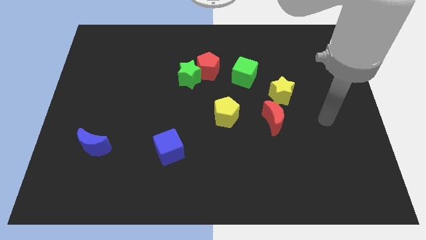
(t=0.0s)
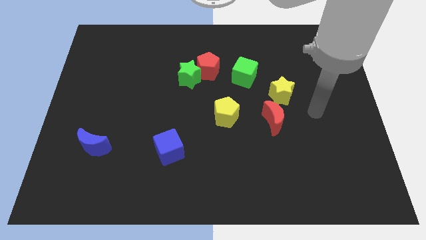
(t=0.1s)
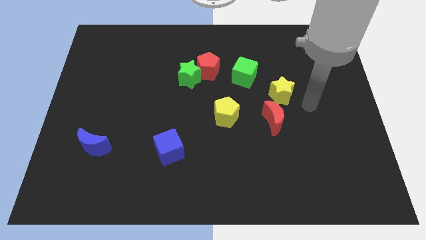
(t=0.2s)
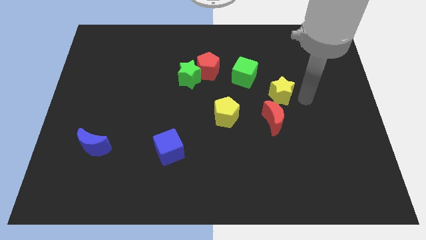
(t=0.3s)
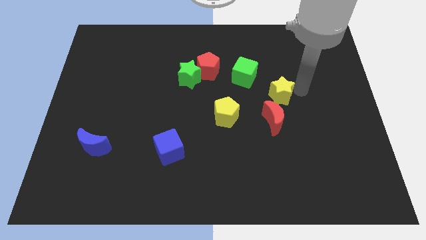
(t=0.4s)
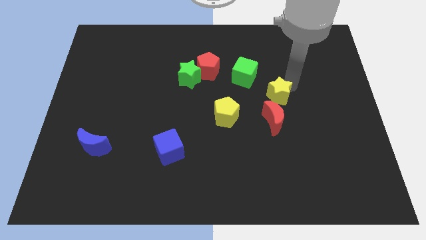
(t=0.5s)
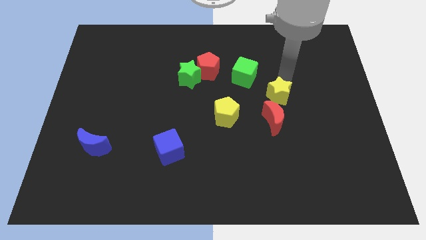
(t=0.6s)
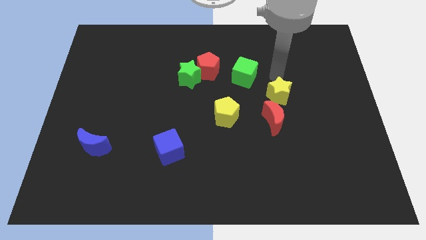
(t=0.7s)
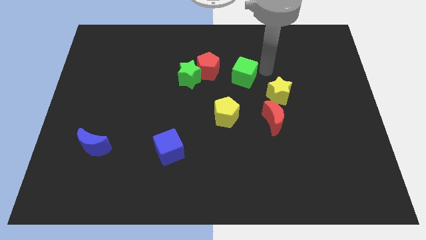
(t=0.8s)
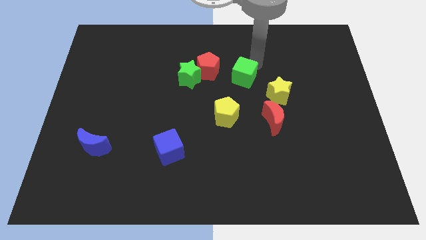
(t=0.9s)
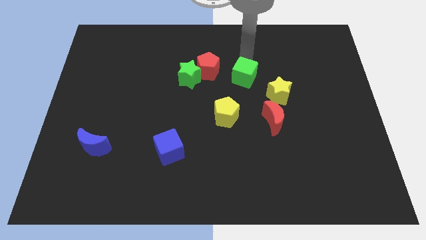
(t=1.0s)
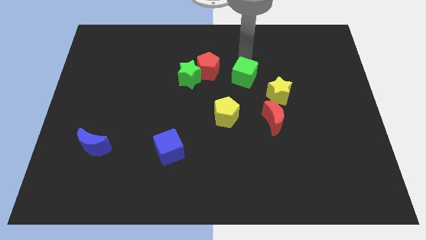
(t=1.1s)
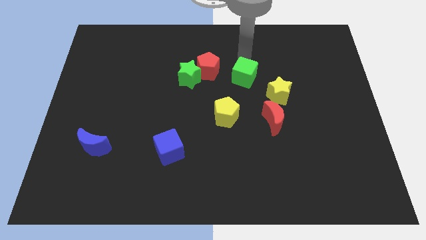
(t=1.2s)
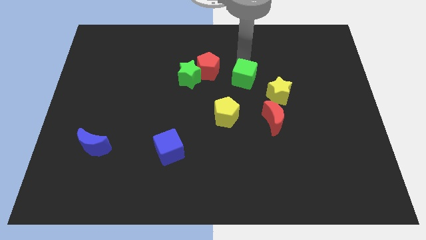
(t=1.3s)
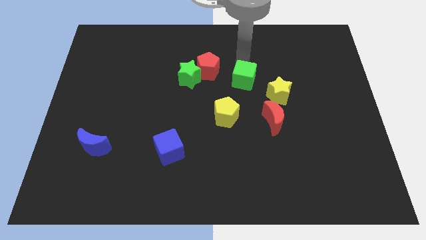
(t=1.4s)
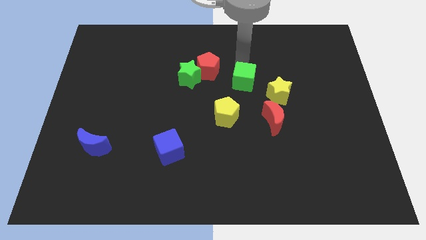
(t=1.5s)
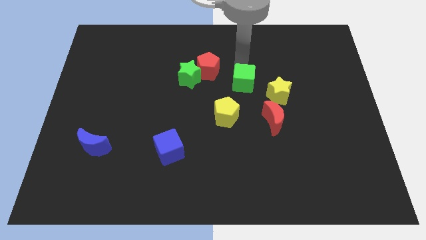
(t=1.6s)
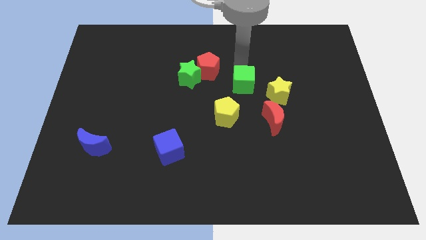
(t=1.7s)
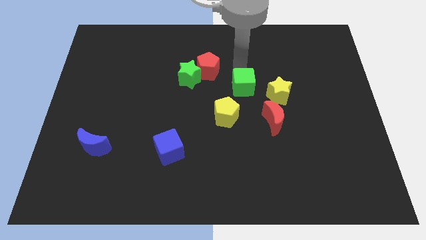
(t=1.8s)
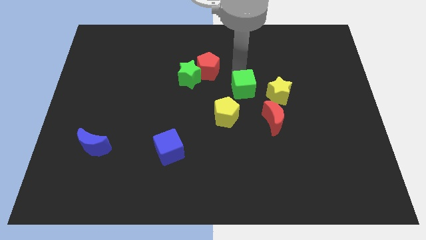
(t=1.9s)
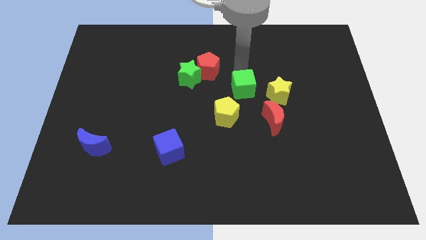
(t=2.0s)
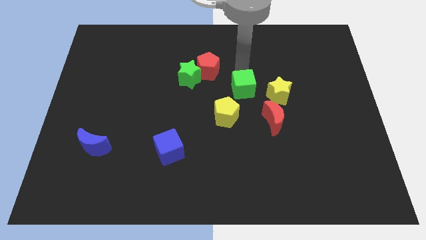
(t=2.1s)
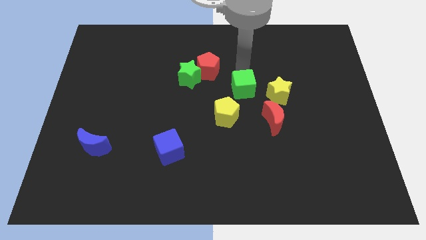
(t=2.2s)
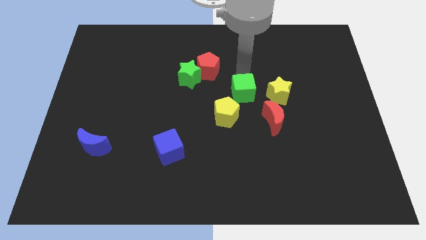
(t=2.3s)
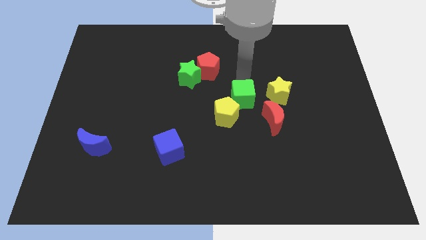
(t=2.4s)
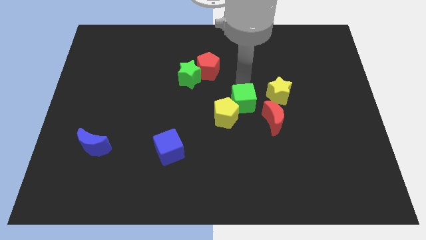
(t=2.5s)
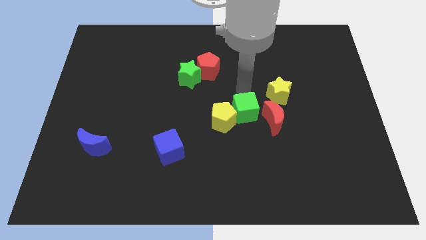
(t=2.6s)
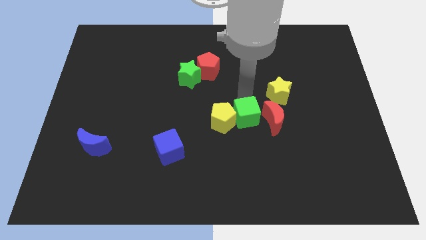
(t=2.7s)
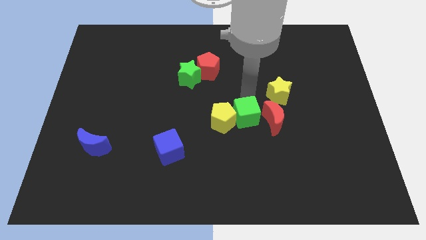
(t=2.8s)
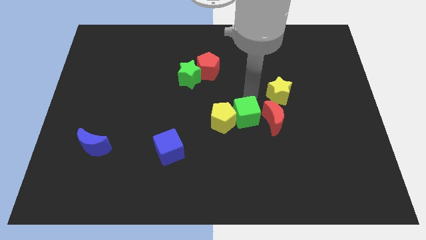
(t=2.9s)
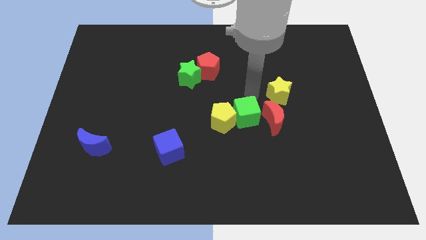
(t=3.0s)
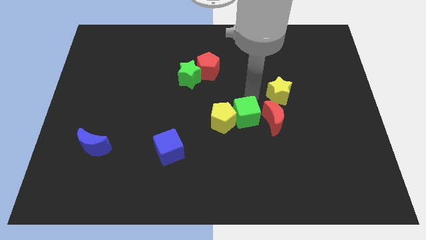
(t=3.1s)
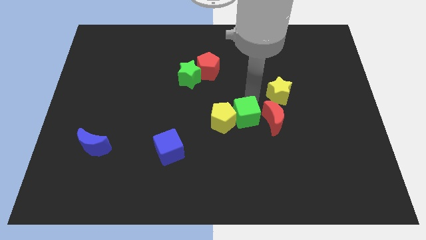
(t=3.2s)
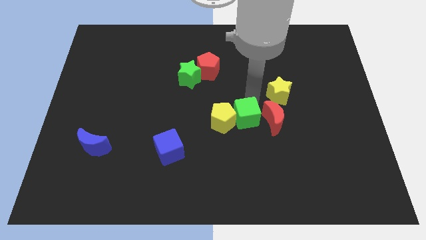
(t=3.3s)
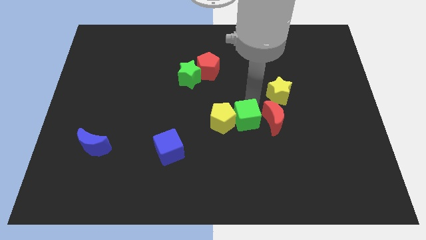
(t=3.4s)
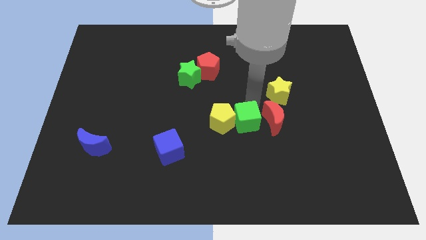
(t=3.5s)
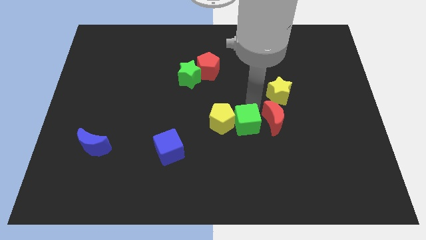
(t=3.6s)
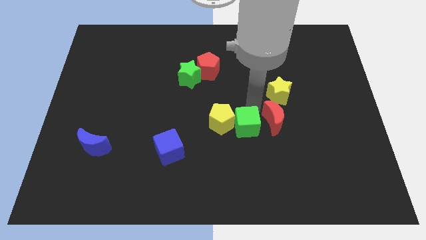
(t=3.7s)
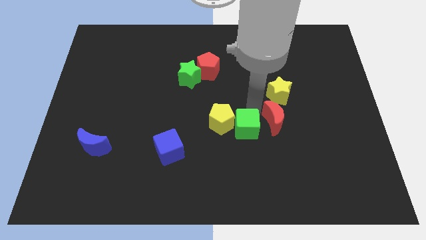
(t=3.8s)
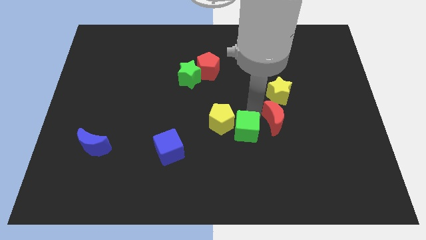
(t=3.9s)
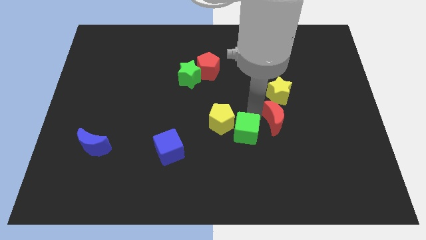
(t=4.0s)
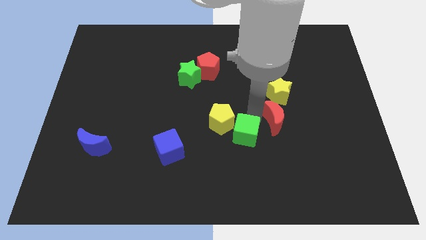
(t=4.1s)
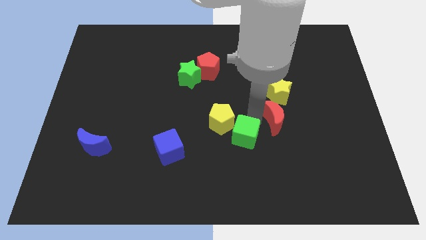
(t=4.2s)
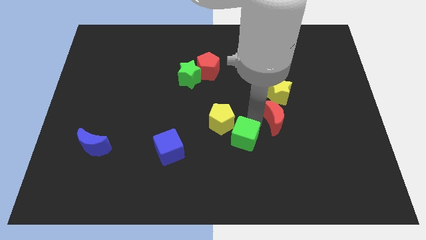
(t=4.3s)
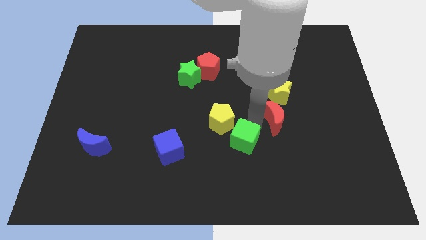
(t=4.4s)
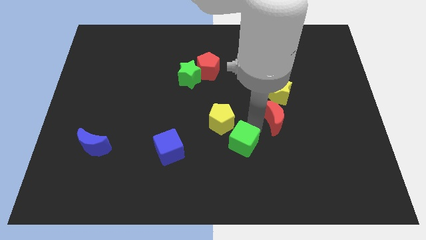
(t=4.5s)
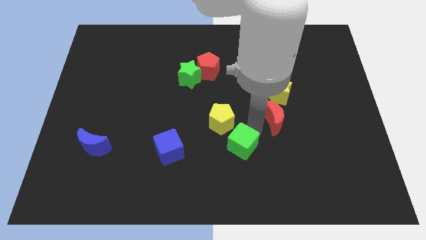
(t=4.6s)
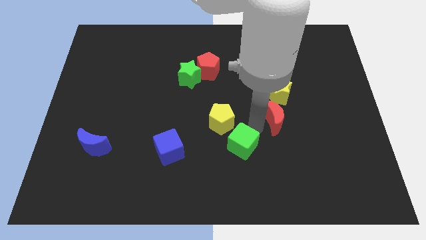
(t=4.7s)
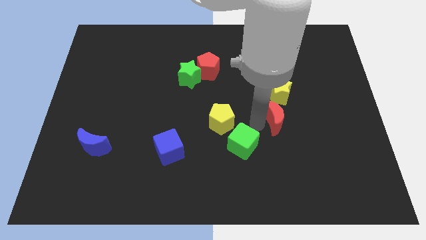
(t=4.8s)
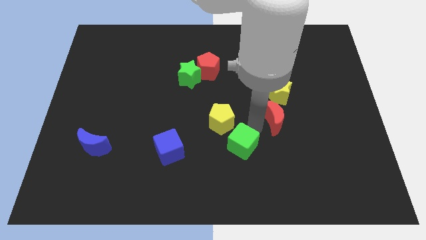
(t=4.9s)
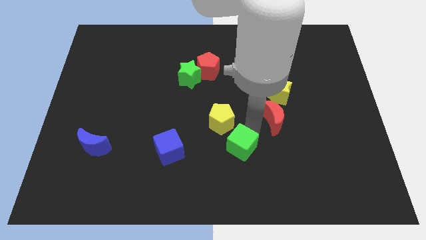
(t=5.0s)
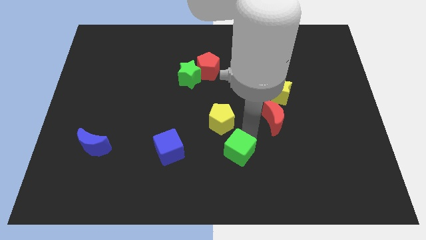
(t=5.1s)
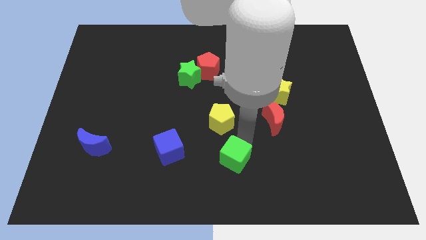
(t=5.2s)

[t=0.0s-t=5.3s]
put the green cube to the bottom

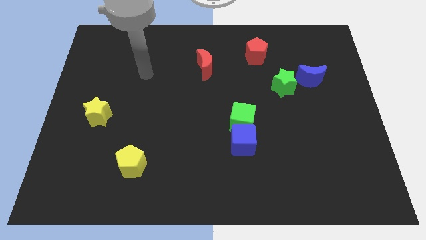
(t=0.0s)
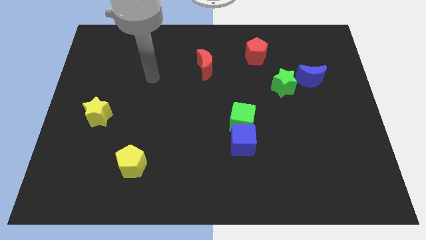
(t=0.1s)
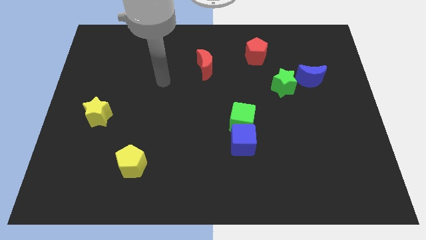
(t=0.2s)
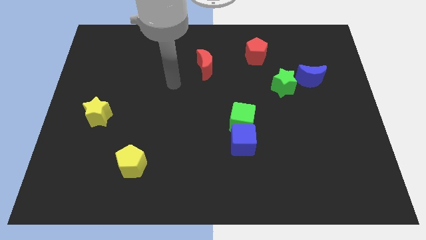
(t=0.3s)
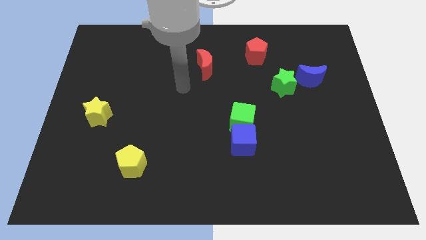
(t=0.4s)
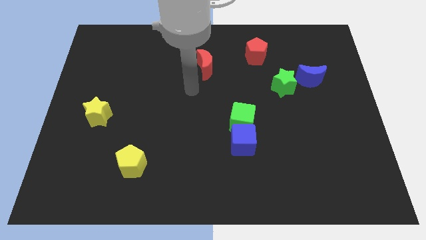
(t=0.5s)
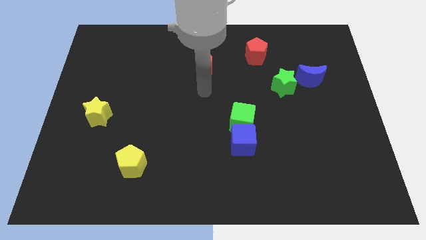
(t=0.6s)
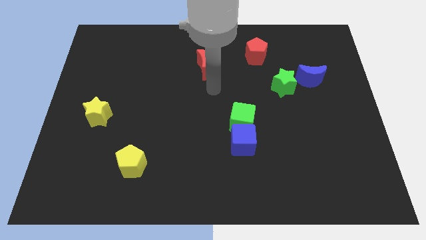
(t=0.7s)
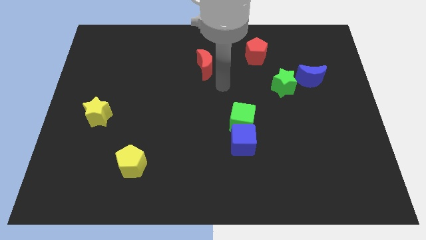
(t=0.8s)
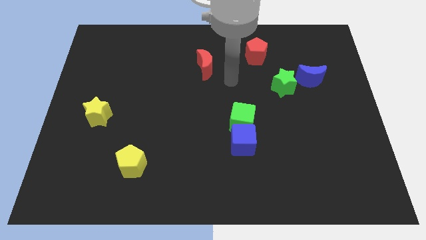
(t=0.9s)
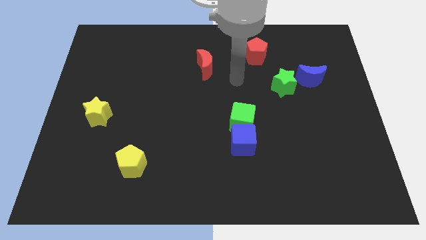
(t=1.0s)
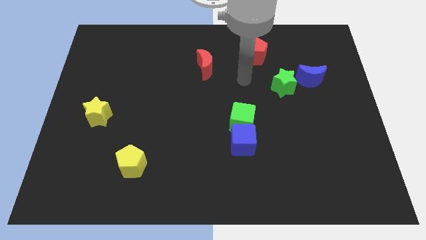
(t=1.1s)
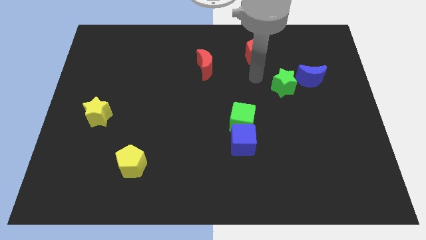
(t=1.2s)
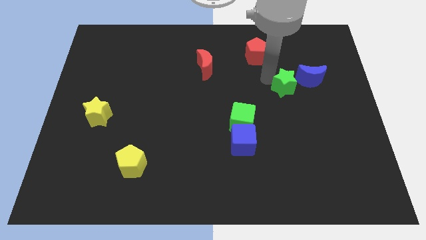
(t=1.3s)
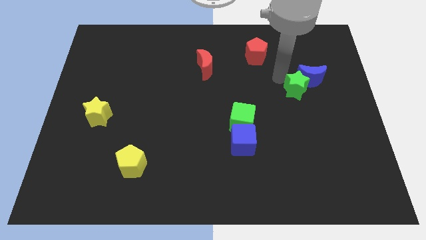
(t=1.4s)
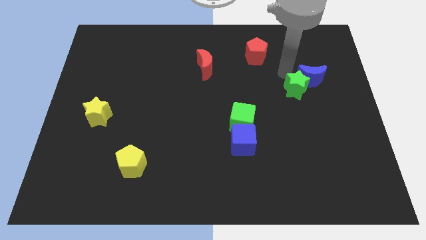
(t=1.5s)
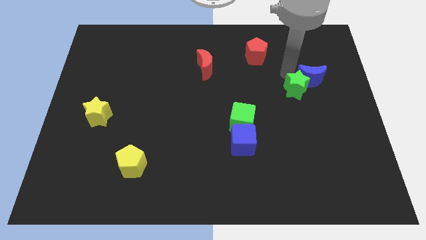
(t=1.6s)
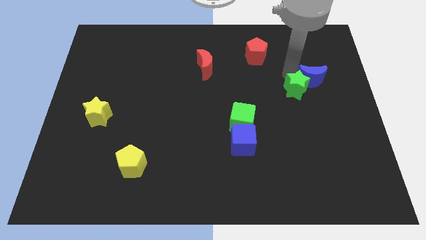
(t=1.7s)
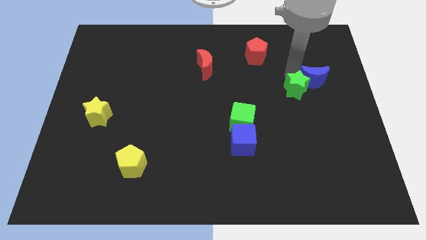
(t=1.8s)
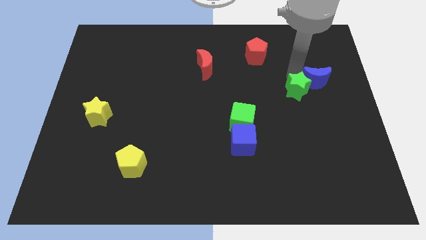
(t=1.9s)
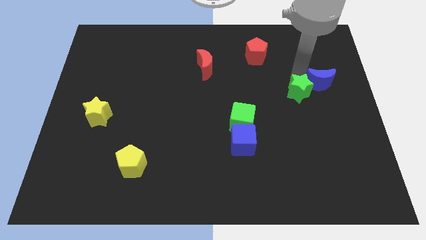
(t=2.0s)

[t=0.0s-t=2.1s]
push the blue moon to the center right
